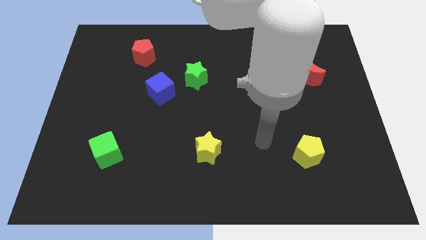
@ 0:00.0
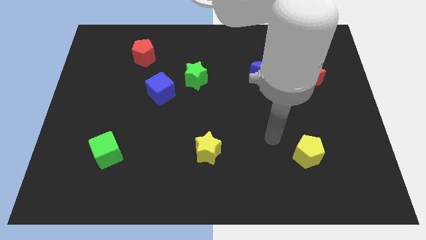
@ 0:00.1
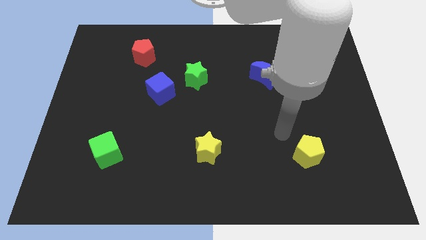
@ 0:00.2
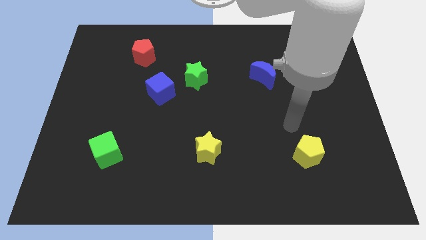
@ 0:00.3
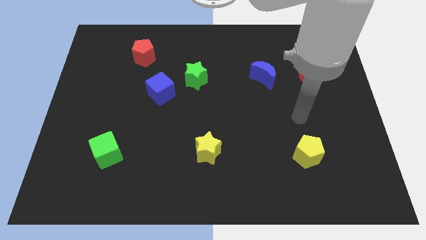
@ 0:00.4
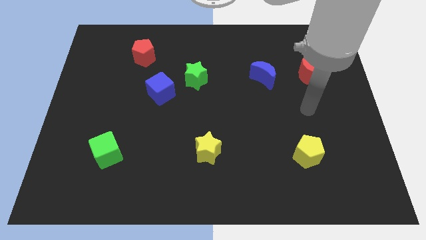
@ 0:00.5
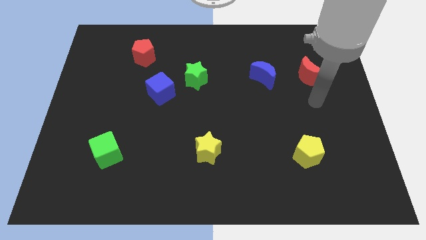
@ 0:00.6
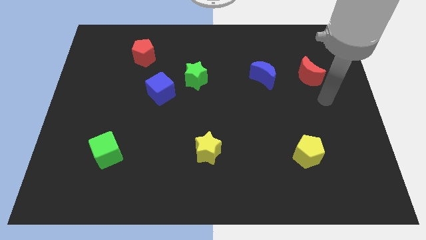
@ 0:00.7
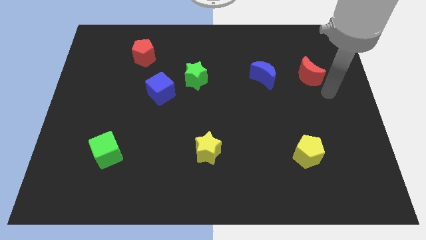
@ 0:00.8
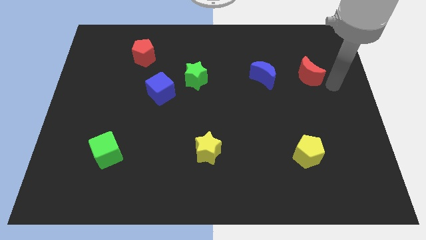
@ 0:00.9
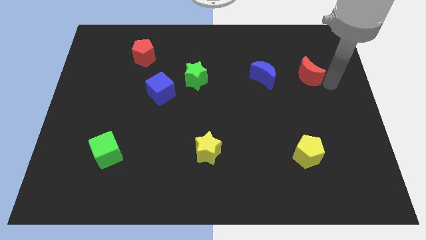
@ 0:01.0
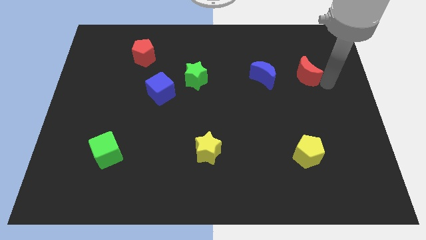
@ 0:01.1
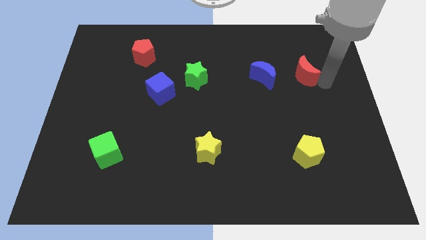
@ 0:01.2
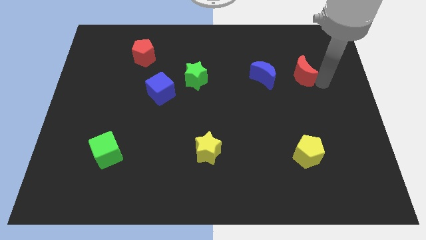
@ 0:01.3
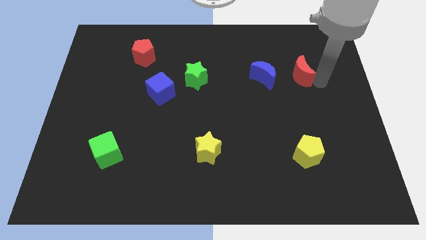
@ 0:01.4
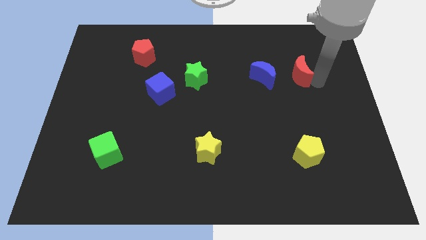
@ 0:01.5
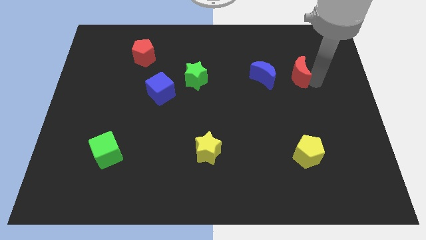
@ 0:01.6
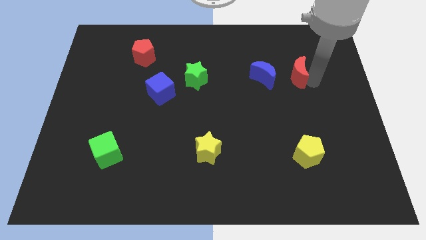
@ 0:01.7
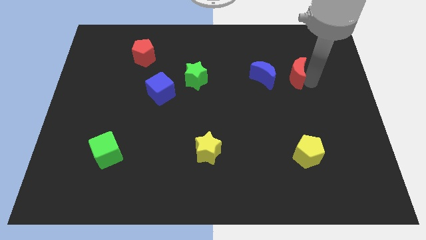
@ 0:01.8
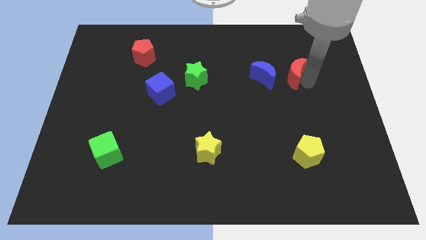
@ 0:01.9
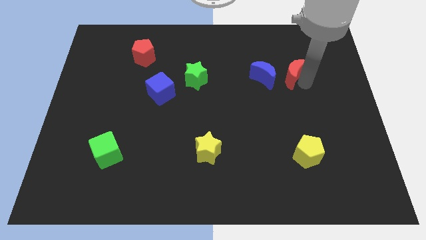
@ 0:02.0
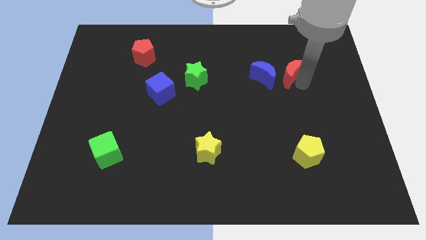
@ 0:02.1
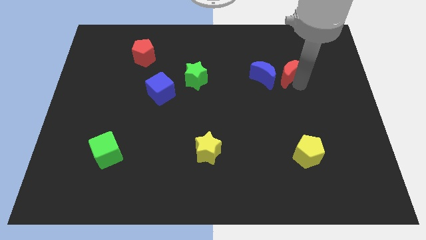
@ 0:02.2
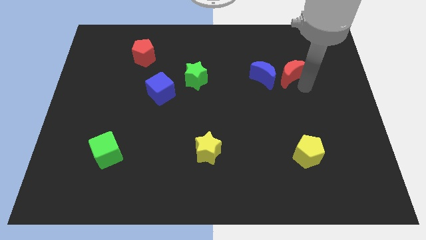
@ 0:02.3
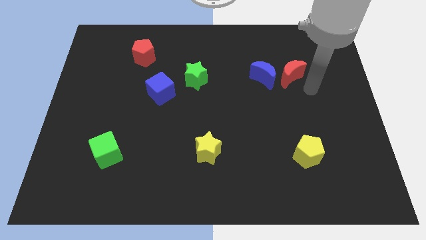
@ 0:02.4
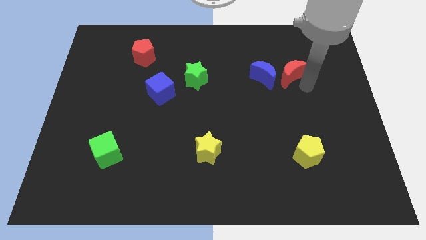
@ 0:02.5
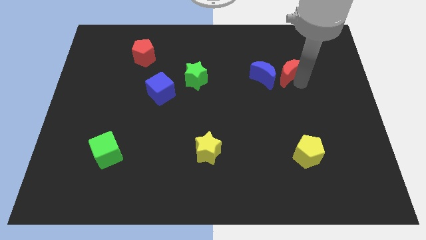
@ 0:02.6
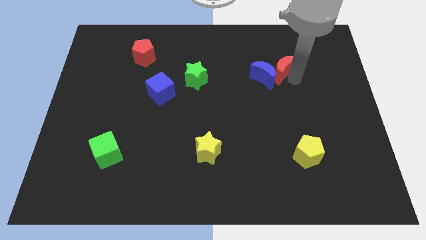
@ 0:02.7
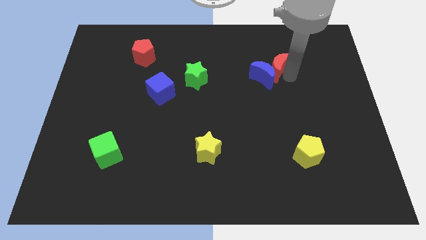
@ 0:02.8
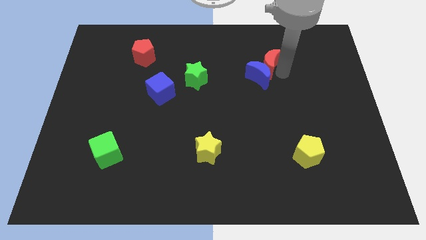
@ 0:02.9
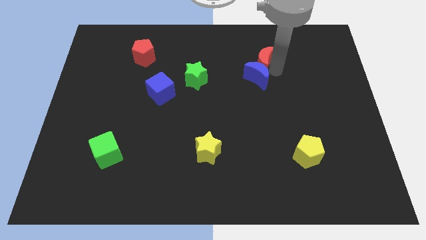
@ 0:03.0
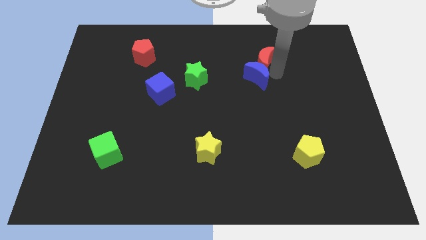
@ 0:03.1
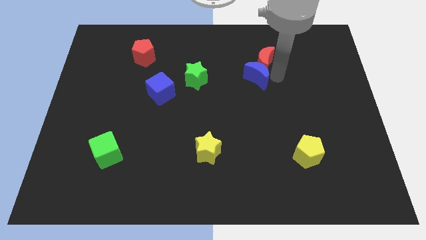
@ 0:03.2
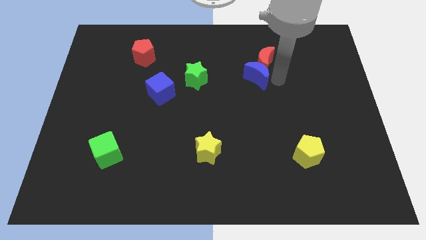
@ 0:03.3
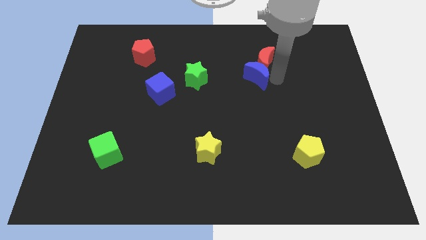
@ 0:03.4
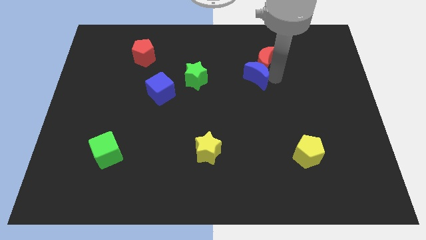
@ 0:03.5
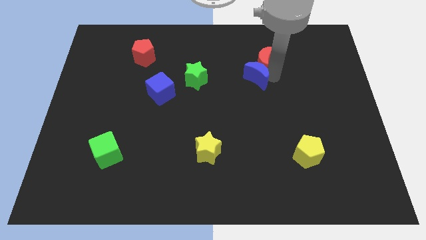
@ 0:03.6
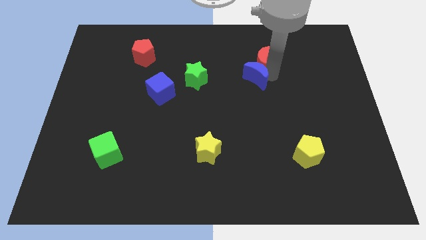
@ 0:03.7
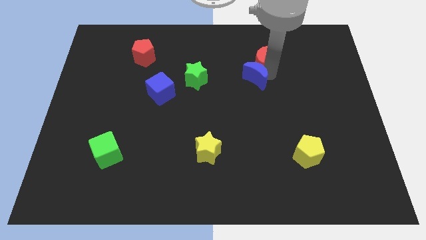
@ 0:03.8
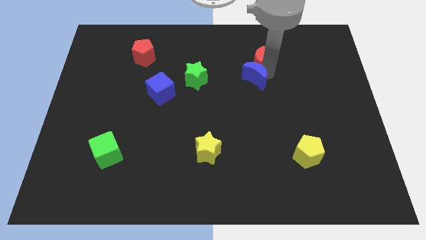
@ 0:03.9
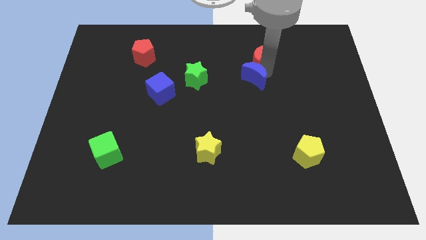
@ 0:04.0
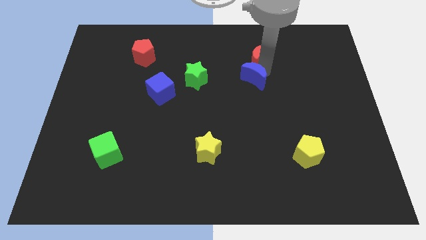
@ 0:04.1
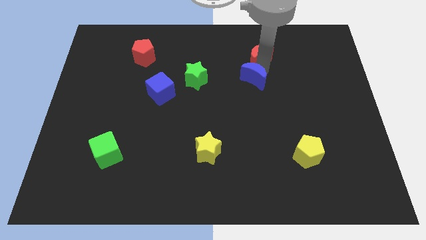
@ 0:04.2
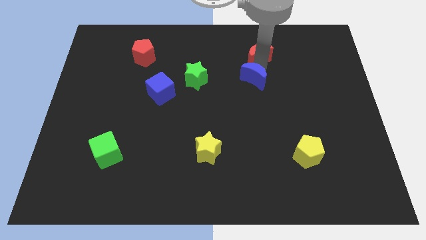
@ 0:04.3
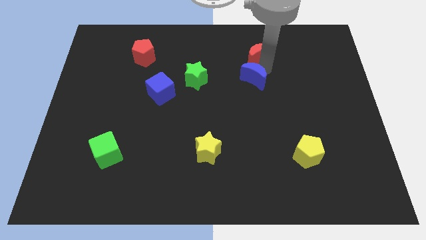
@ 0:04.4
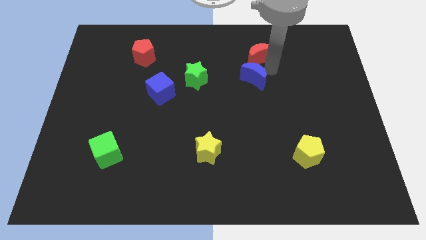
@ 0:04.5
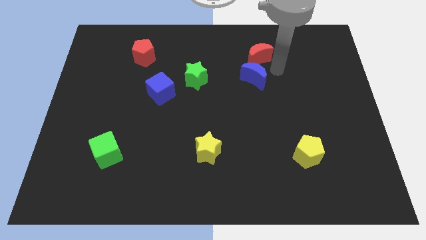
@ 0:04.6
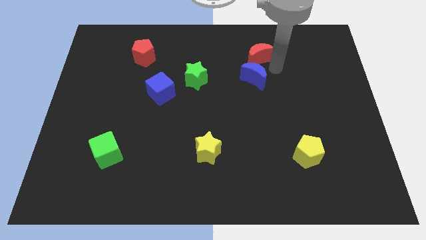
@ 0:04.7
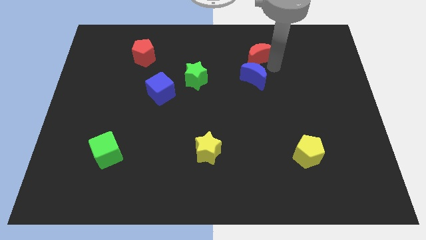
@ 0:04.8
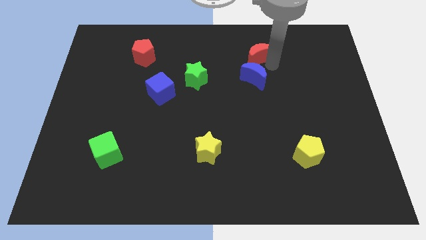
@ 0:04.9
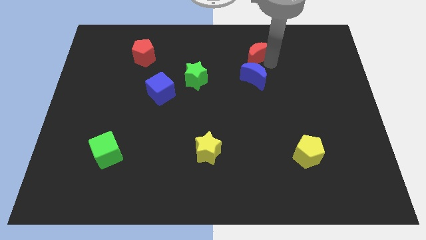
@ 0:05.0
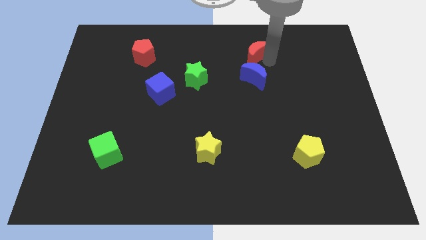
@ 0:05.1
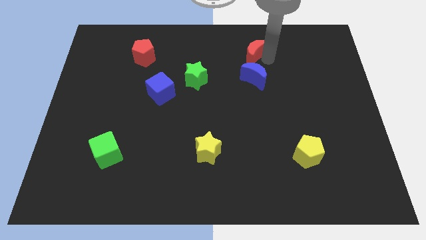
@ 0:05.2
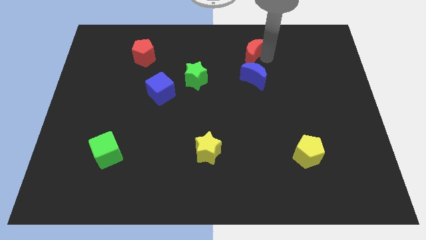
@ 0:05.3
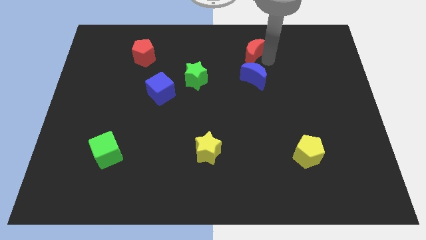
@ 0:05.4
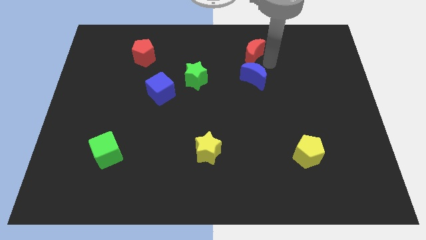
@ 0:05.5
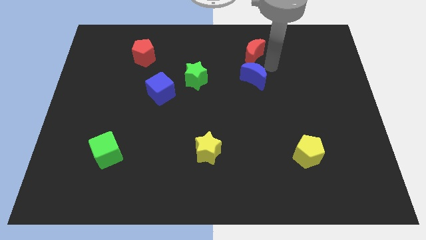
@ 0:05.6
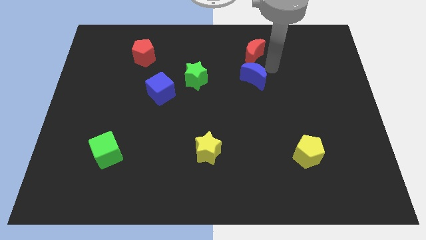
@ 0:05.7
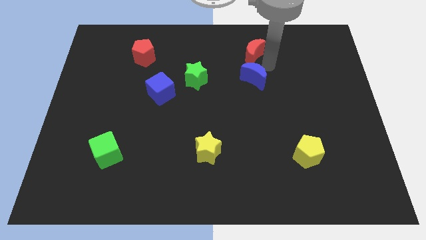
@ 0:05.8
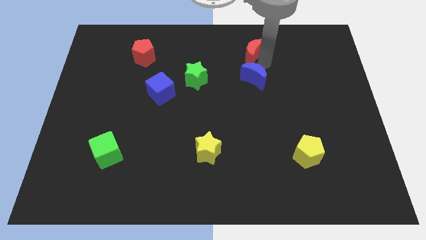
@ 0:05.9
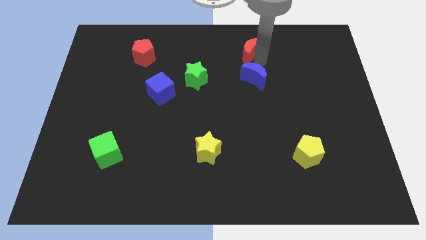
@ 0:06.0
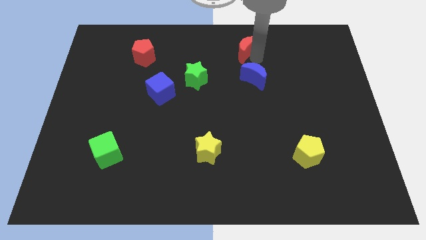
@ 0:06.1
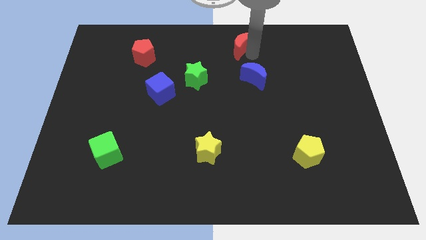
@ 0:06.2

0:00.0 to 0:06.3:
push the red moon to the top
